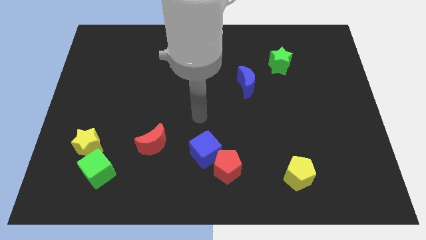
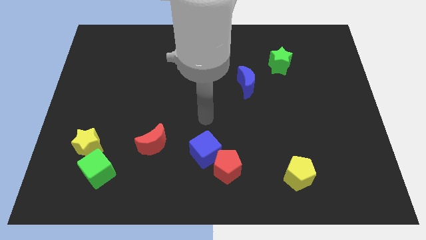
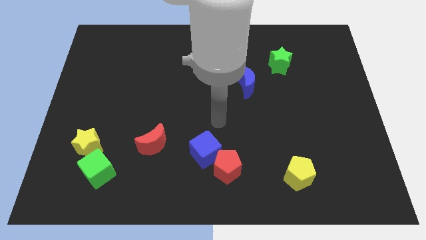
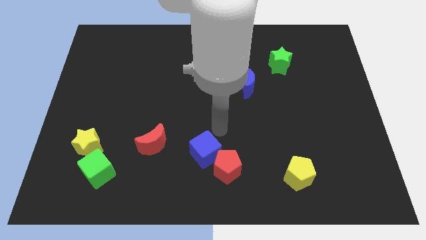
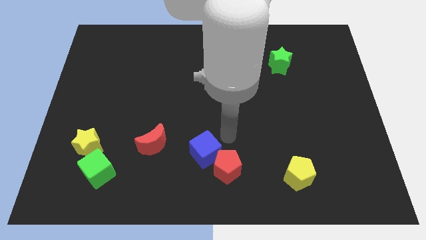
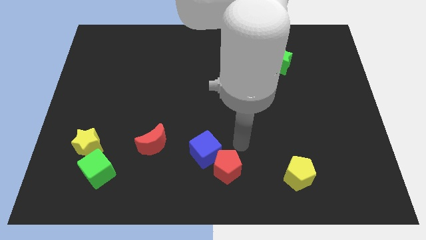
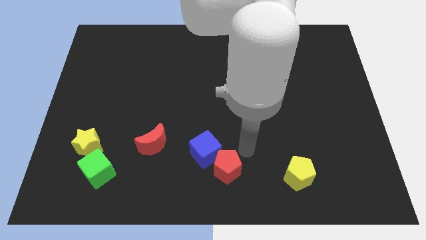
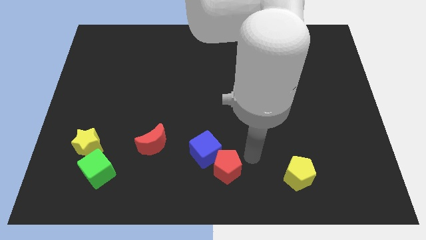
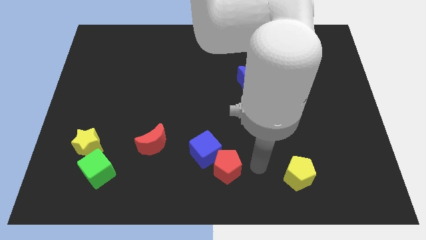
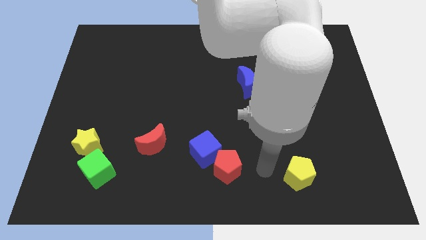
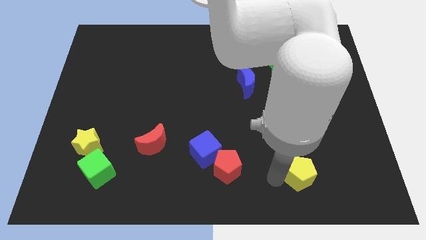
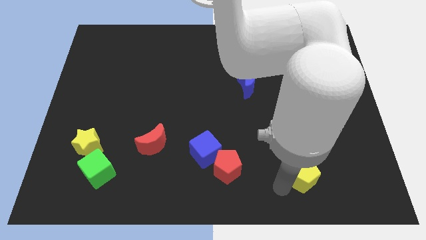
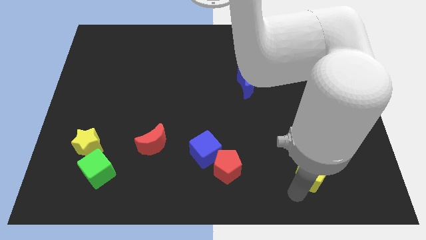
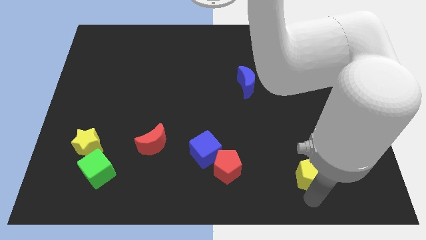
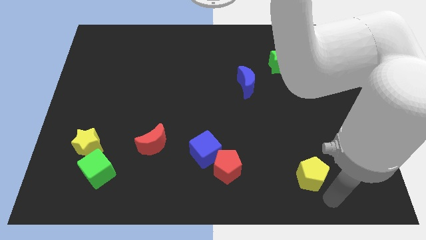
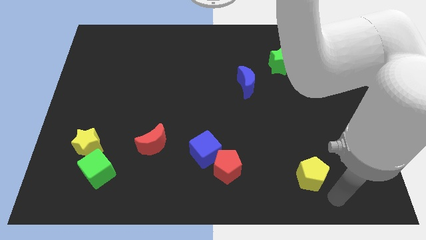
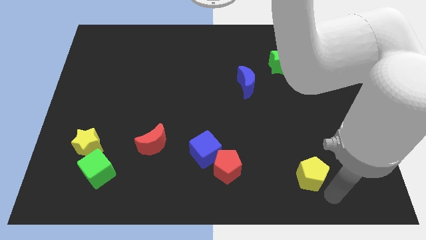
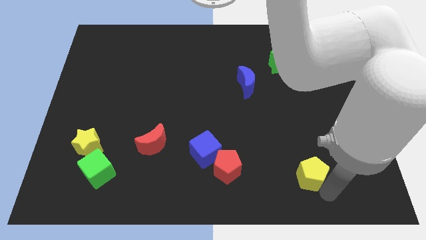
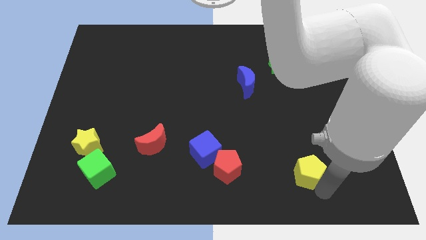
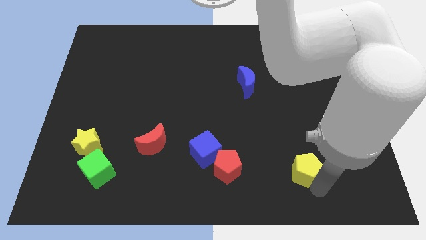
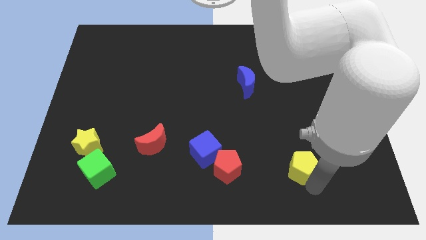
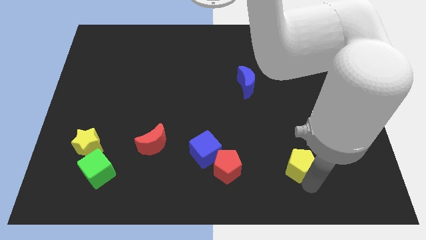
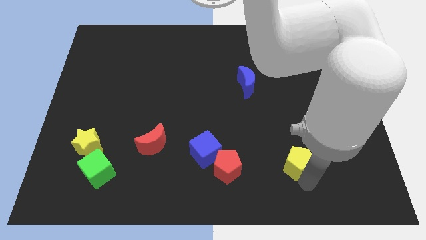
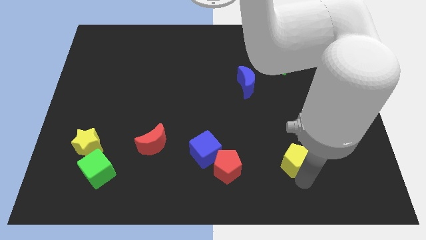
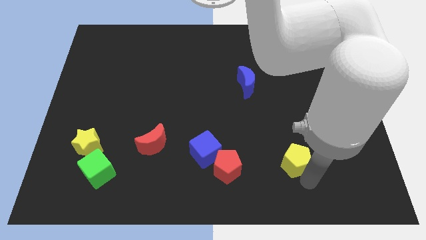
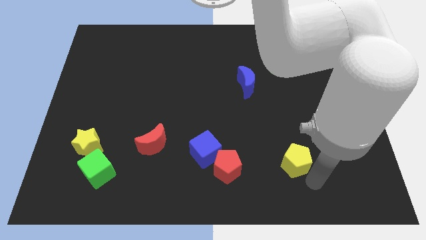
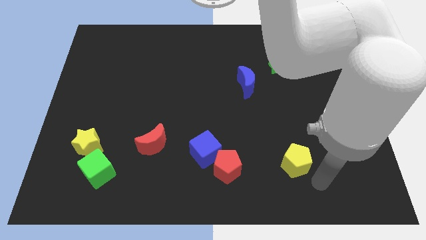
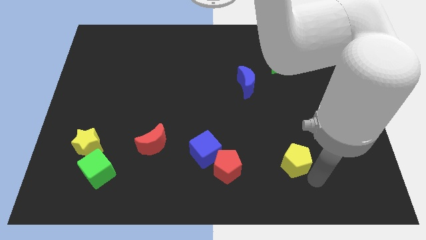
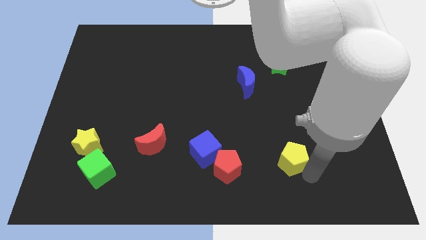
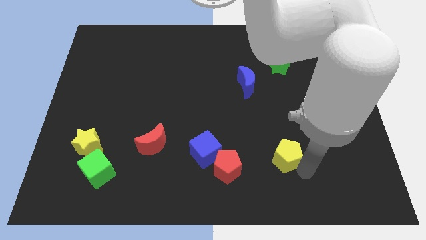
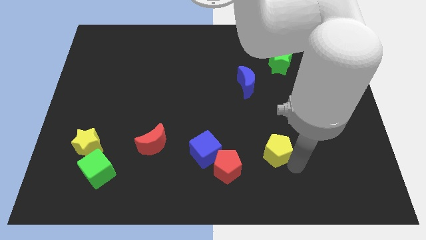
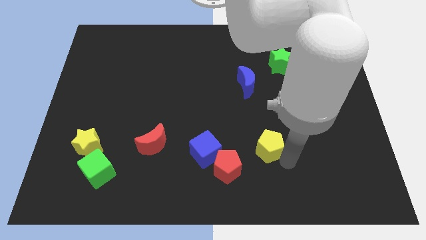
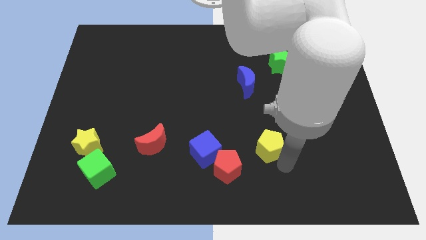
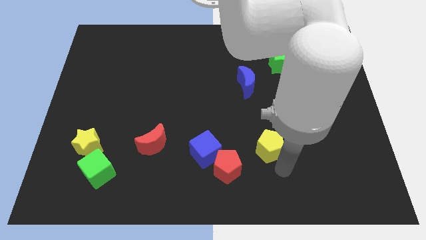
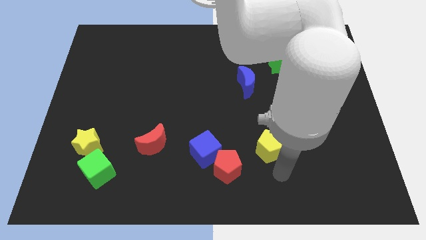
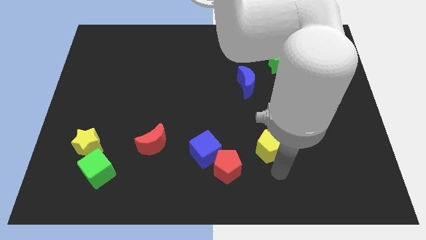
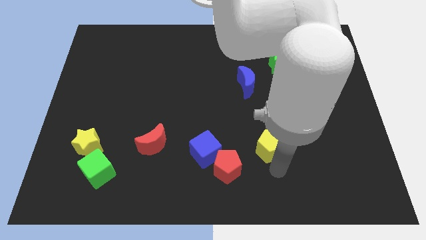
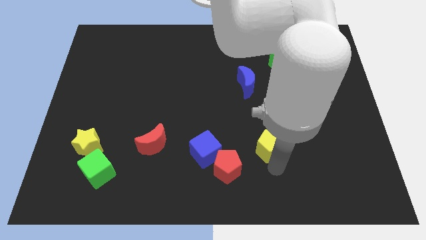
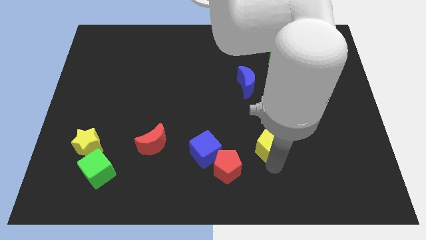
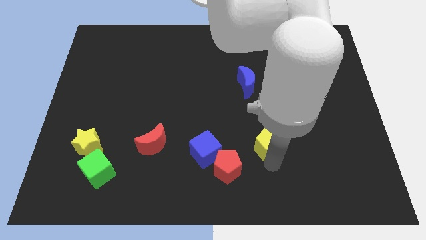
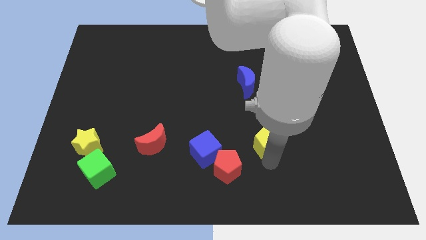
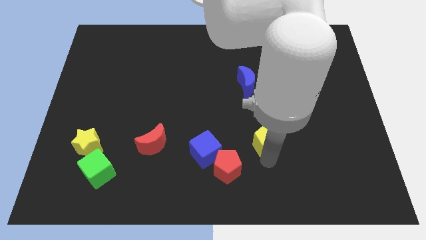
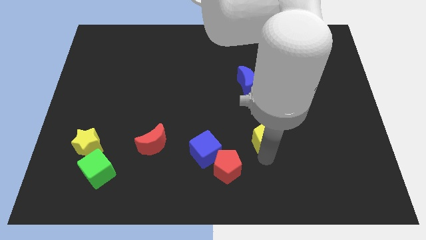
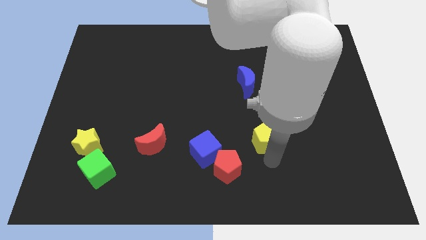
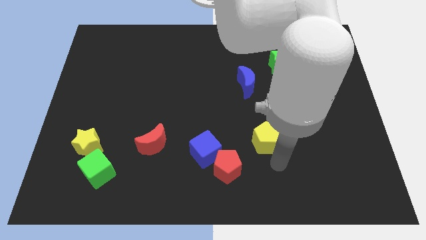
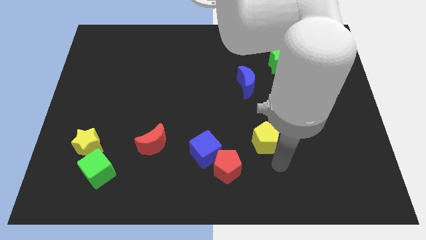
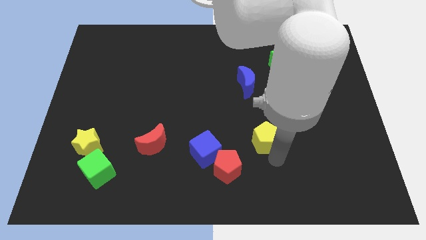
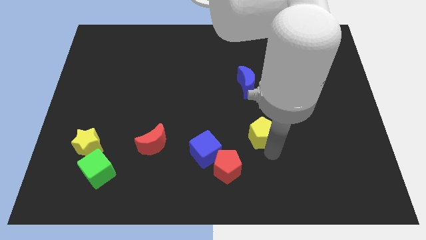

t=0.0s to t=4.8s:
slide the yellow pentagon to the bottom side of the blue moon

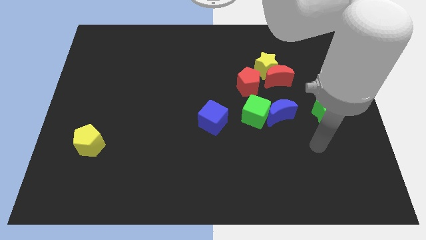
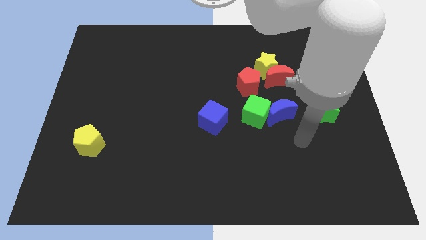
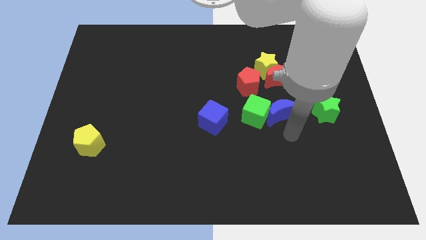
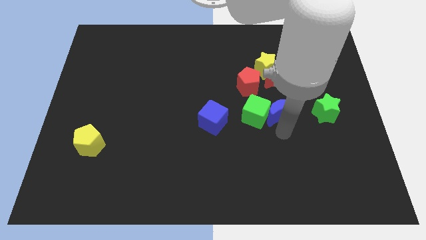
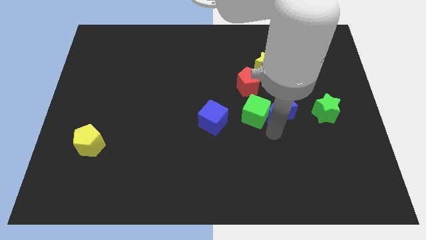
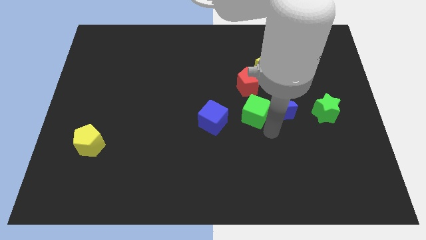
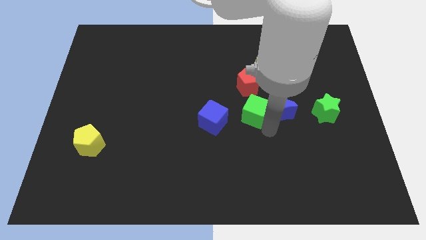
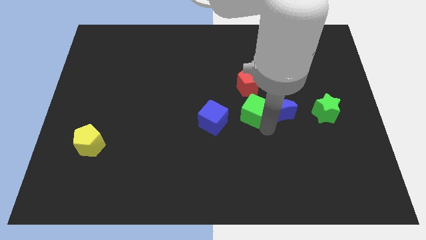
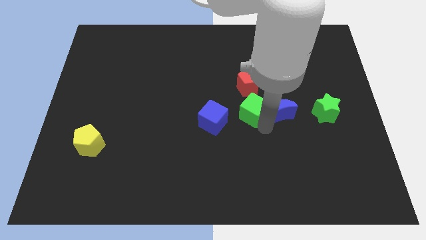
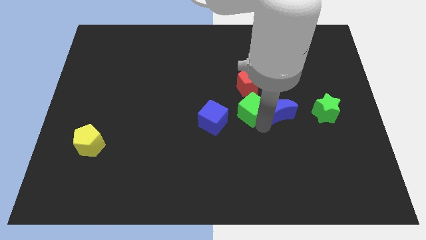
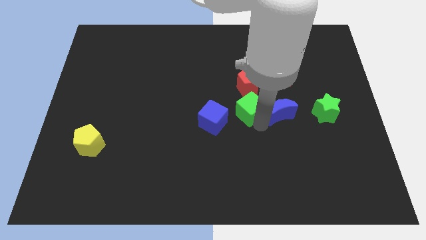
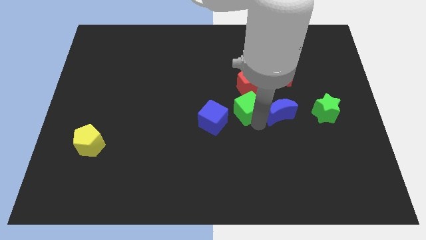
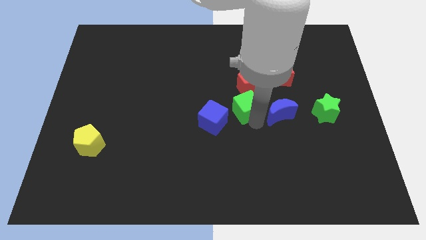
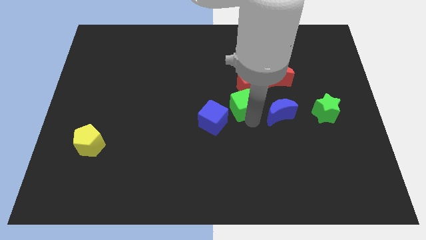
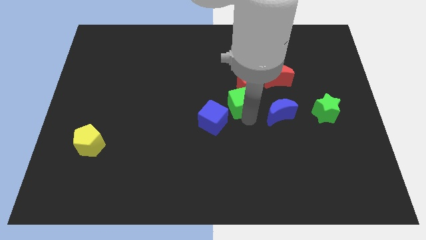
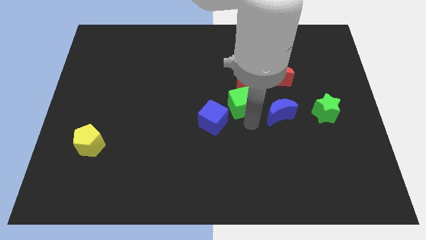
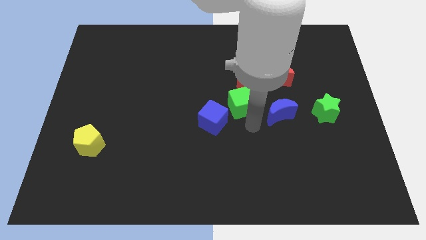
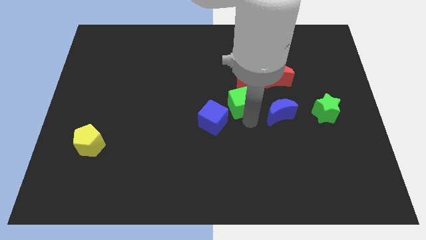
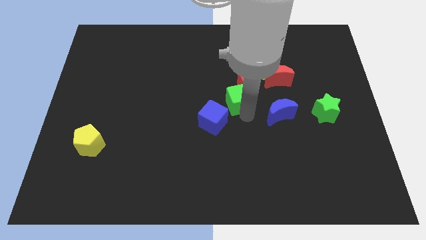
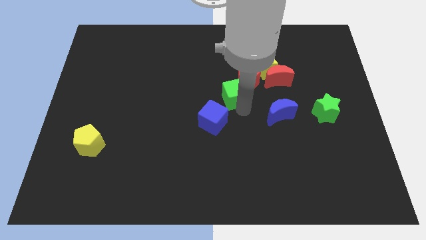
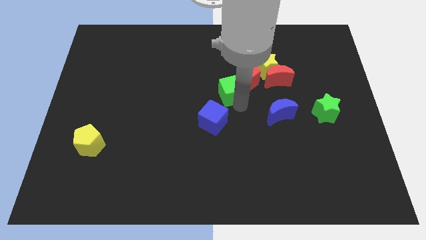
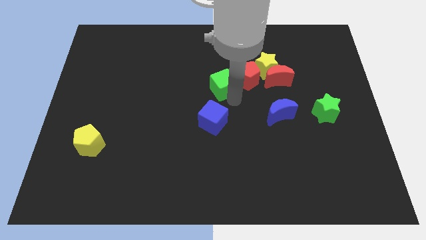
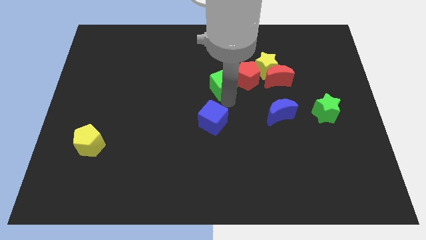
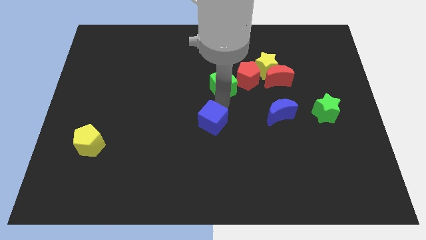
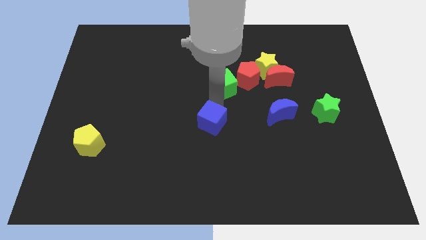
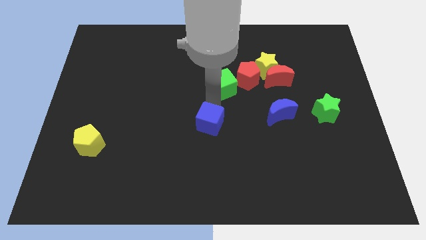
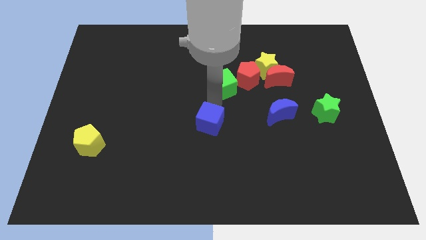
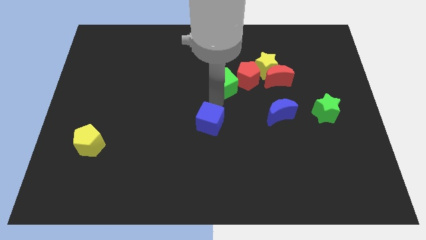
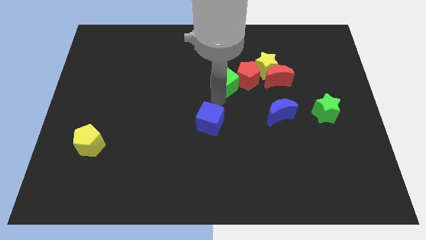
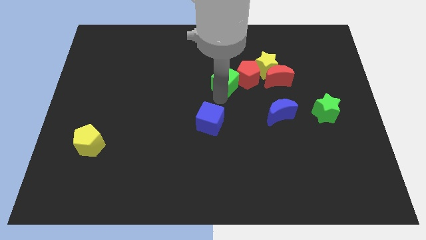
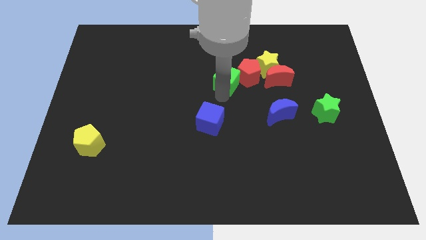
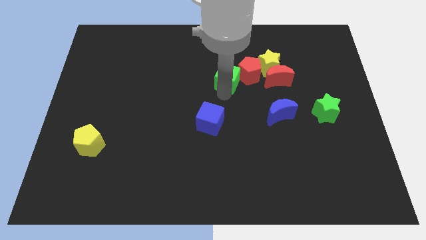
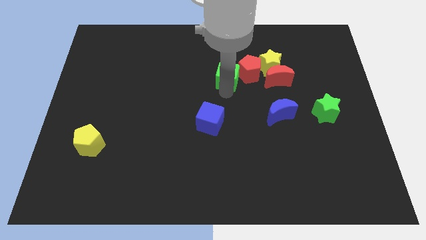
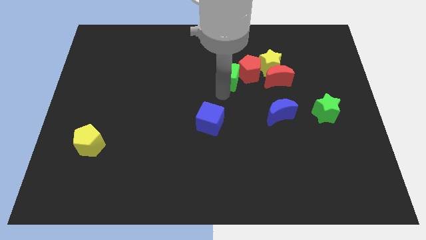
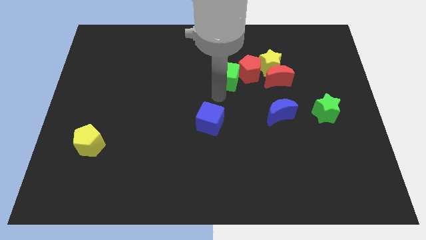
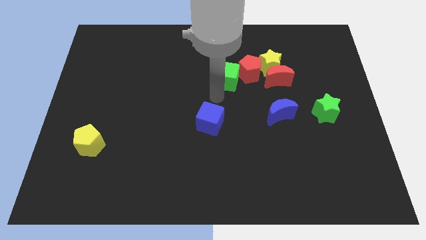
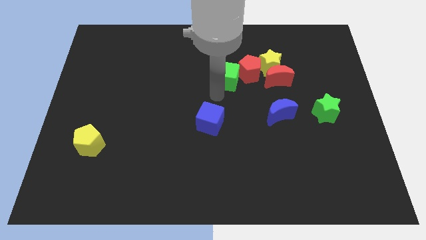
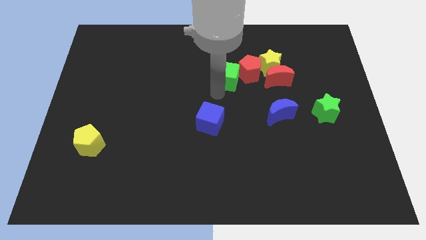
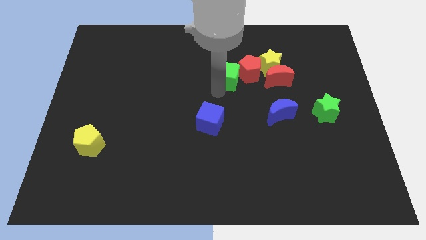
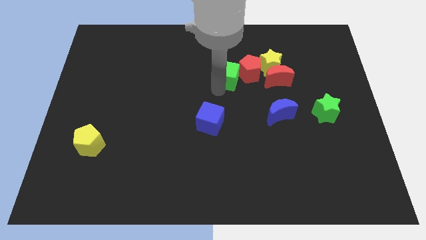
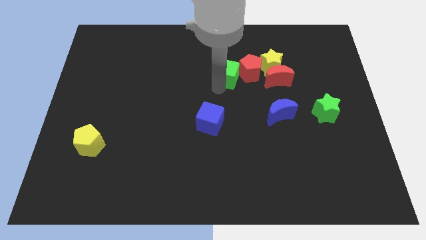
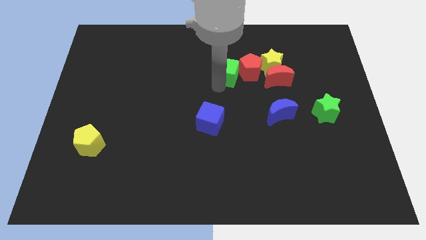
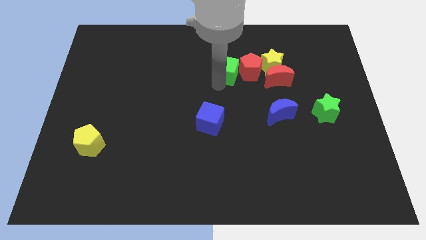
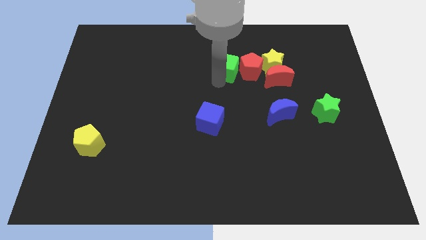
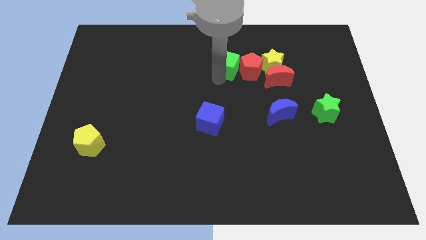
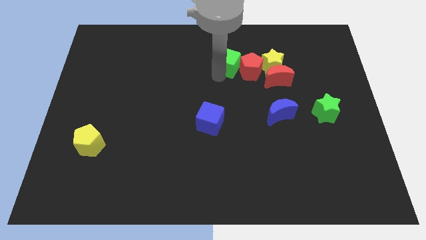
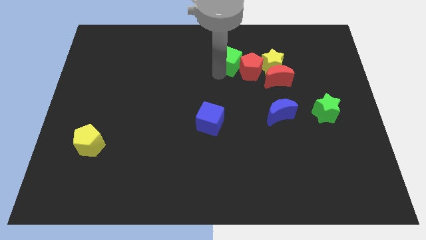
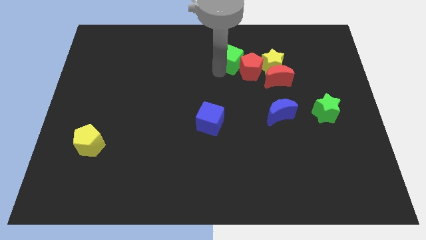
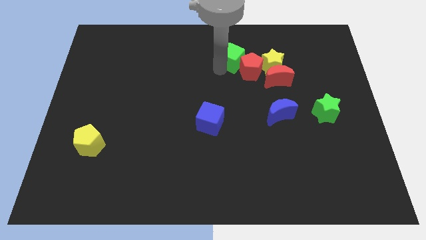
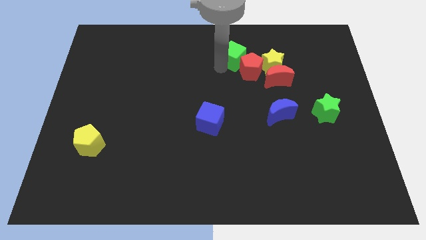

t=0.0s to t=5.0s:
slide the green cube to the top left of the yellow star
